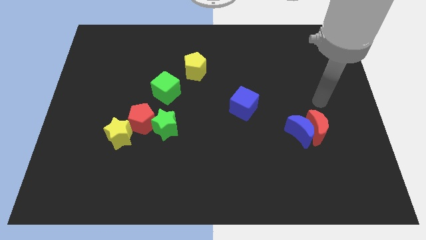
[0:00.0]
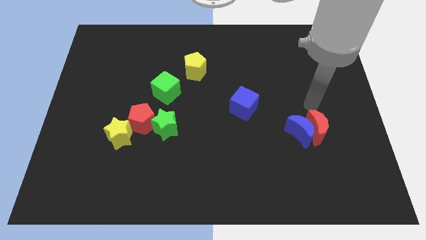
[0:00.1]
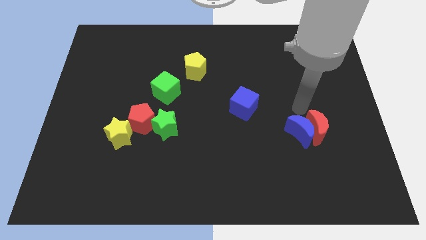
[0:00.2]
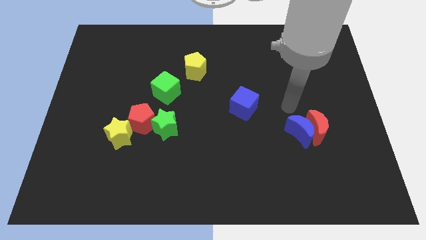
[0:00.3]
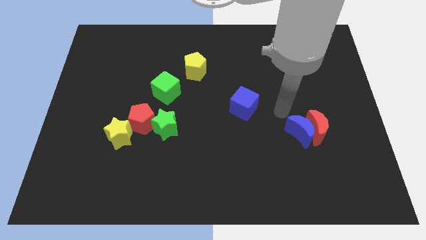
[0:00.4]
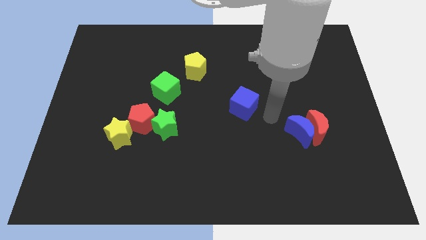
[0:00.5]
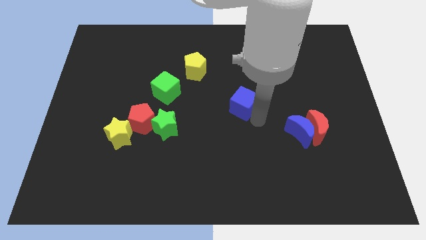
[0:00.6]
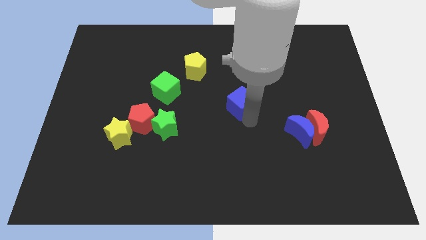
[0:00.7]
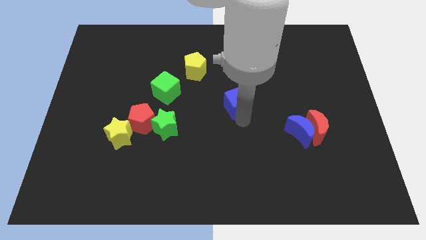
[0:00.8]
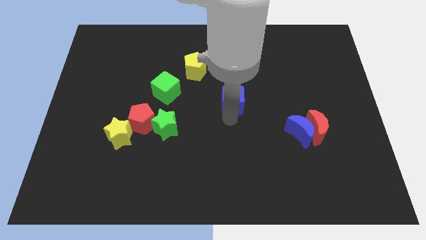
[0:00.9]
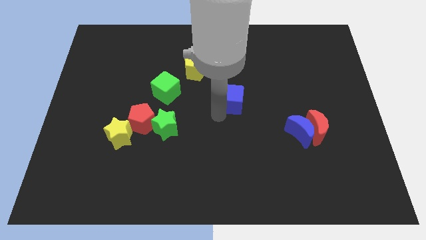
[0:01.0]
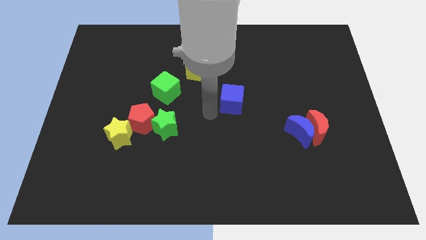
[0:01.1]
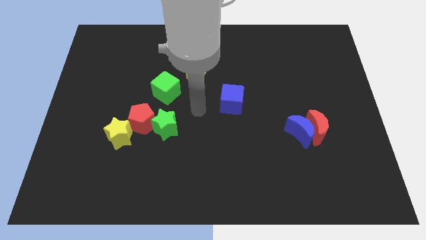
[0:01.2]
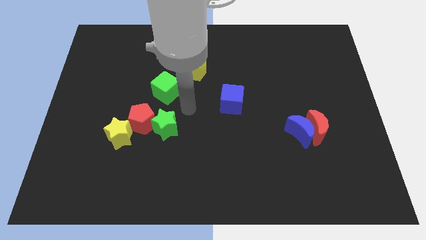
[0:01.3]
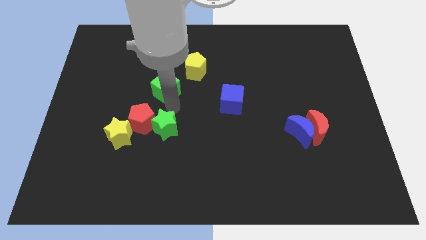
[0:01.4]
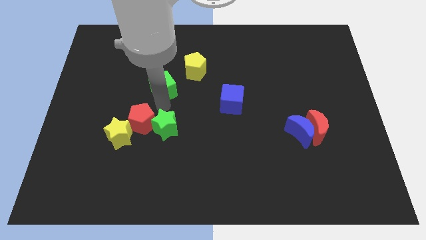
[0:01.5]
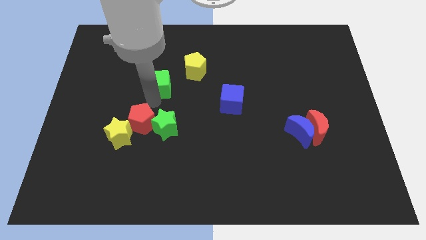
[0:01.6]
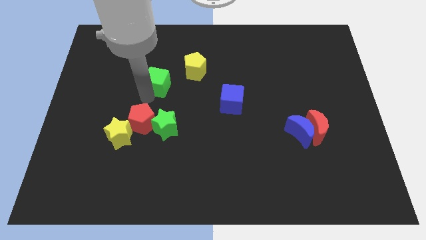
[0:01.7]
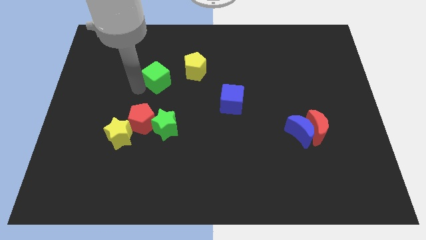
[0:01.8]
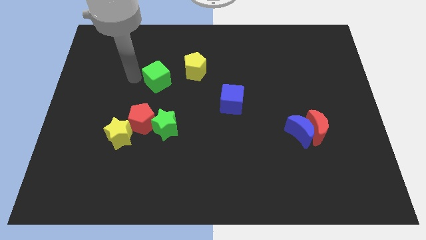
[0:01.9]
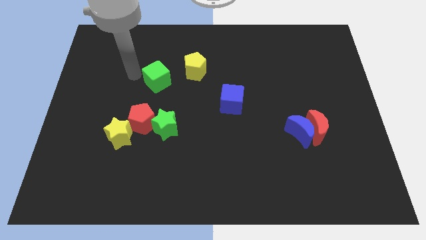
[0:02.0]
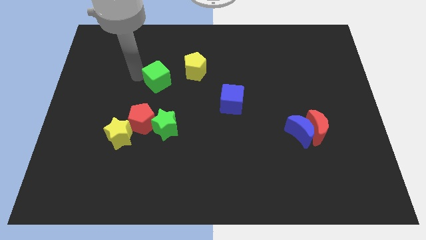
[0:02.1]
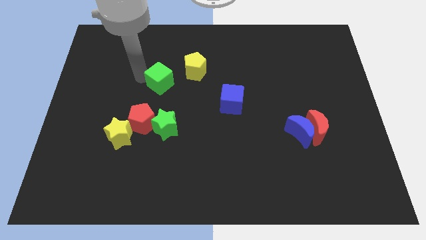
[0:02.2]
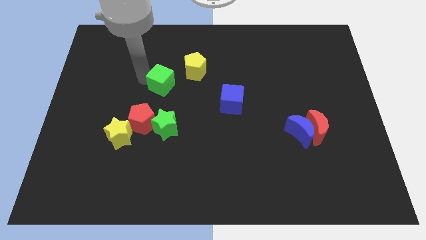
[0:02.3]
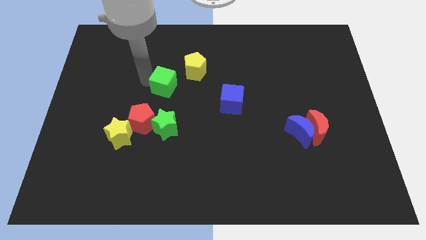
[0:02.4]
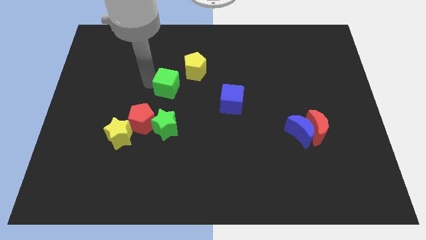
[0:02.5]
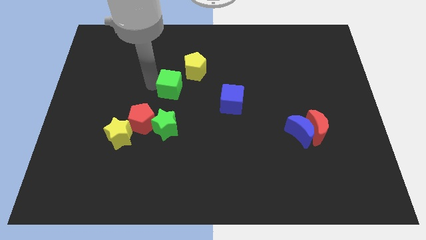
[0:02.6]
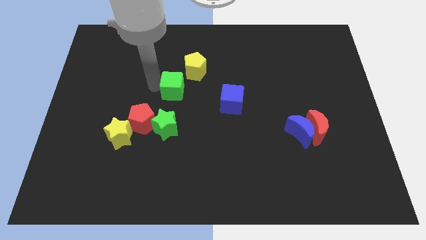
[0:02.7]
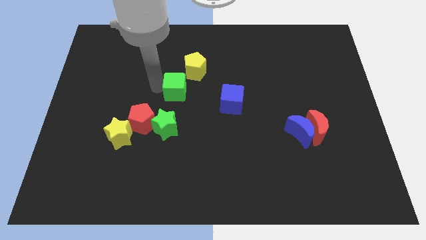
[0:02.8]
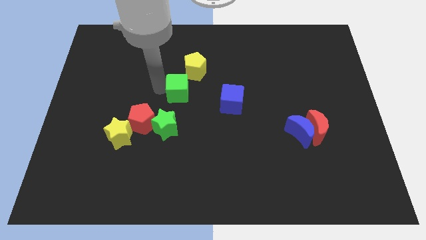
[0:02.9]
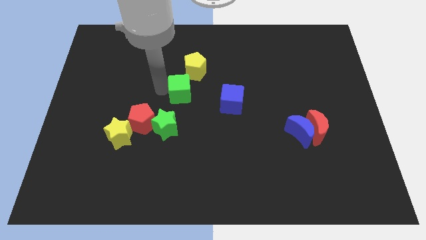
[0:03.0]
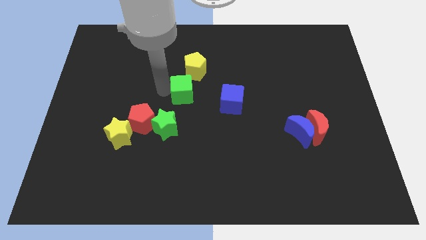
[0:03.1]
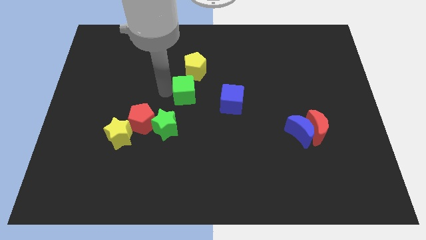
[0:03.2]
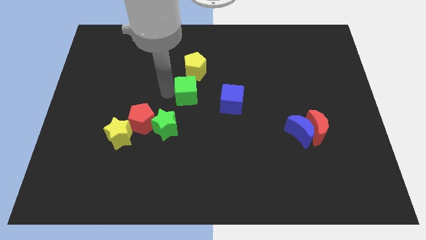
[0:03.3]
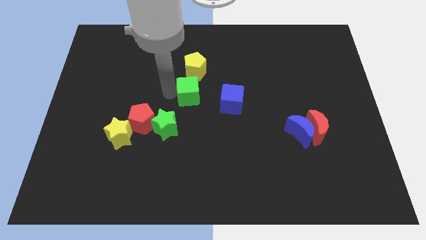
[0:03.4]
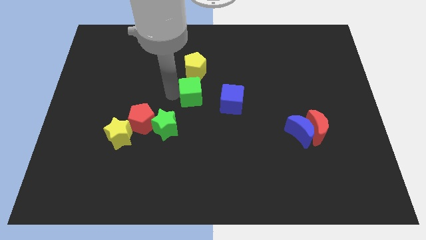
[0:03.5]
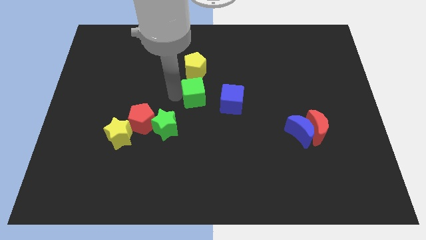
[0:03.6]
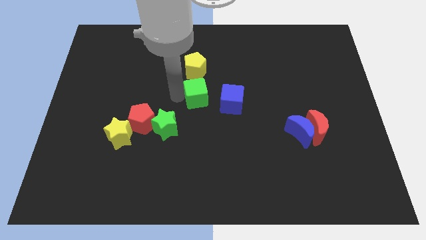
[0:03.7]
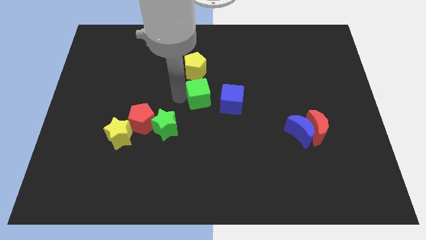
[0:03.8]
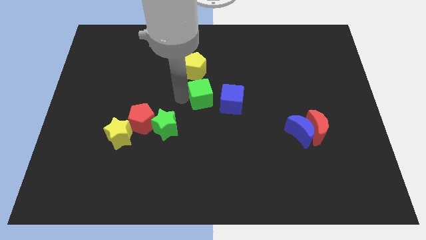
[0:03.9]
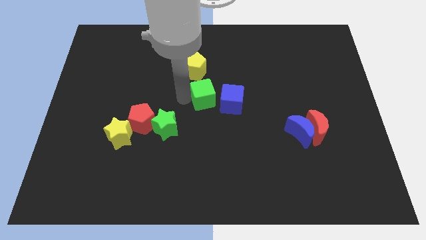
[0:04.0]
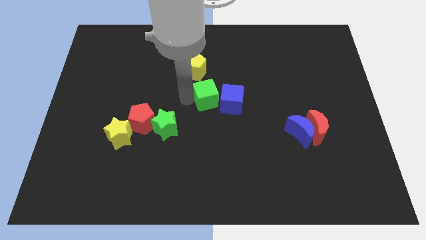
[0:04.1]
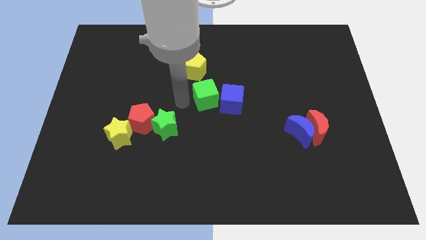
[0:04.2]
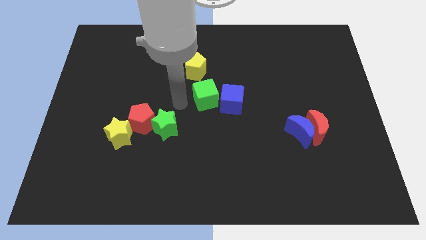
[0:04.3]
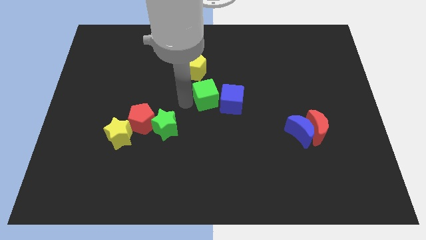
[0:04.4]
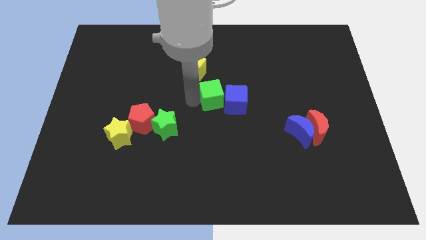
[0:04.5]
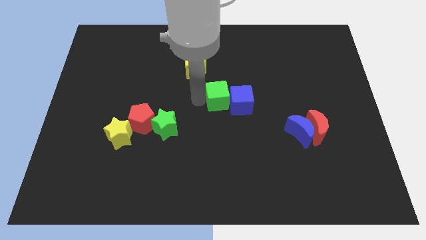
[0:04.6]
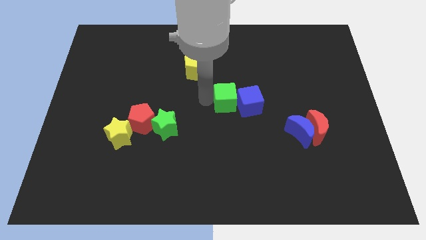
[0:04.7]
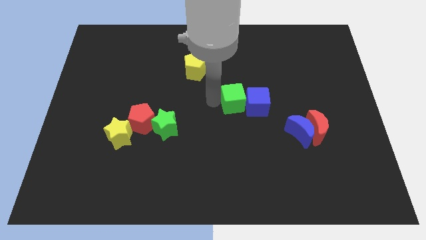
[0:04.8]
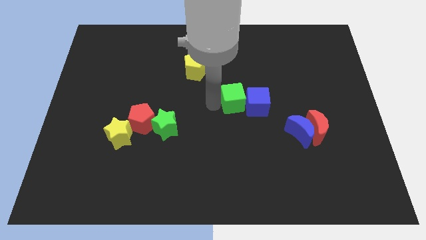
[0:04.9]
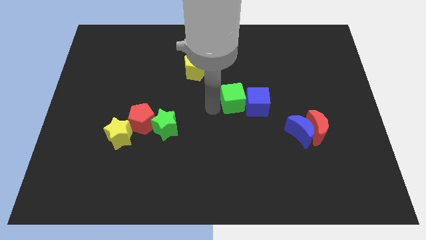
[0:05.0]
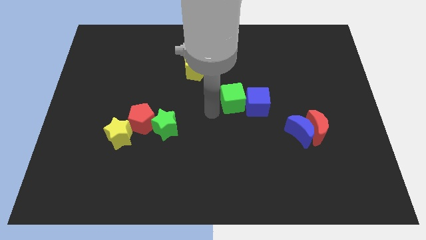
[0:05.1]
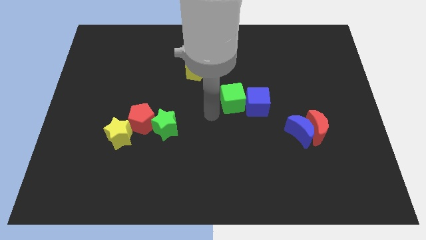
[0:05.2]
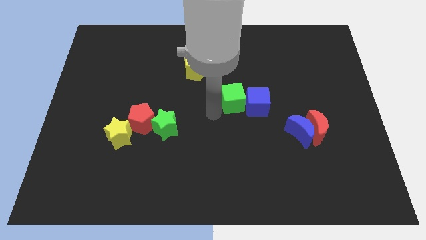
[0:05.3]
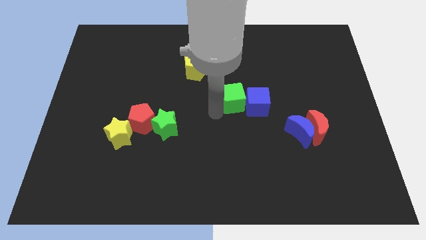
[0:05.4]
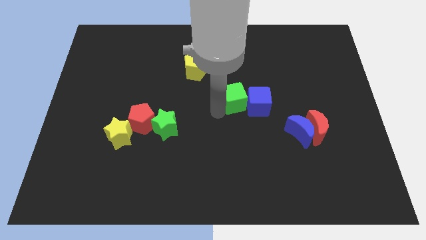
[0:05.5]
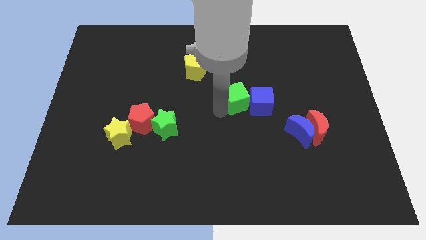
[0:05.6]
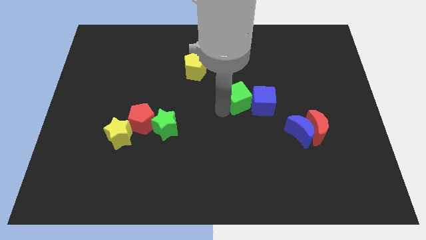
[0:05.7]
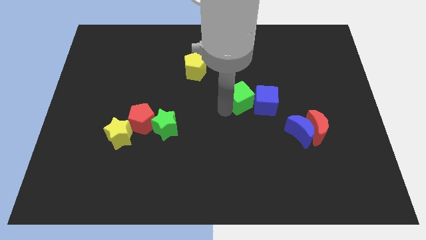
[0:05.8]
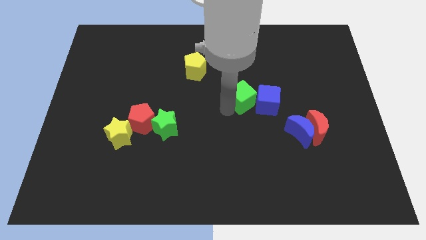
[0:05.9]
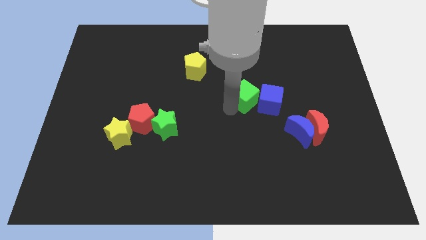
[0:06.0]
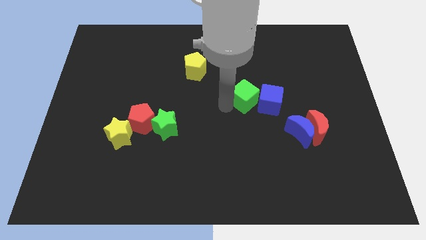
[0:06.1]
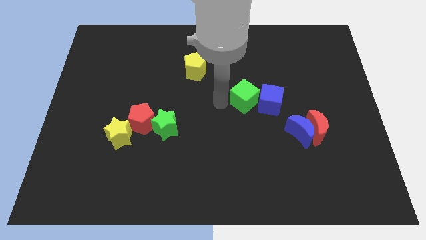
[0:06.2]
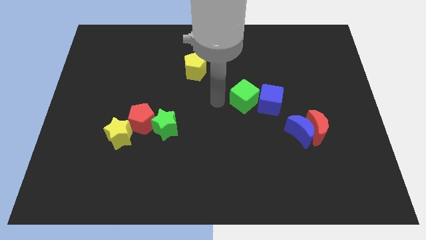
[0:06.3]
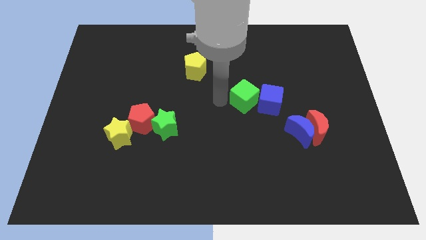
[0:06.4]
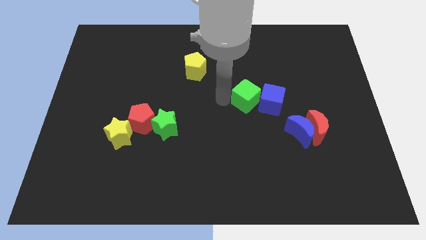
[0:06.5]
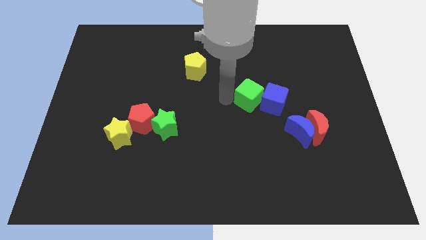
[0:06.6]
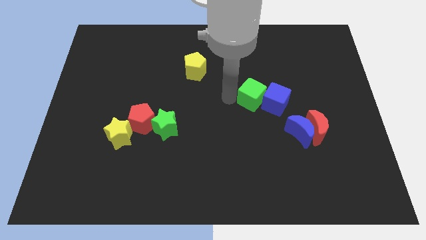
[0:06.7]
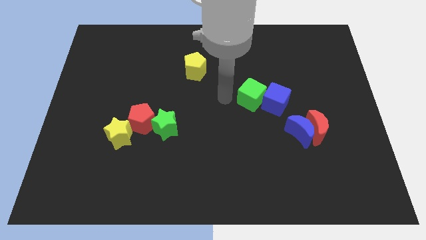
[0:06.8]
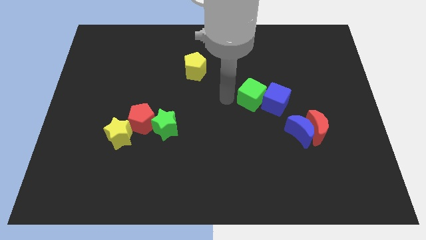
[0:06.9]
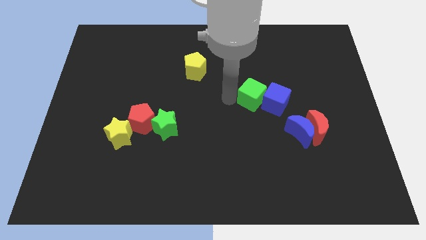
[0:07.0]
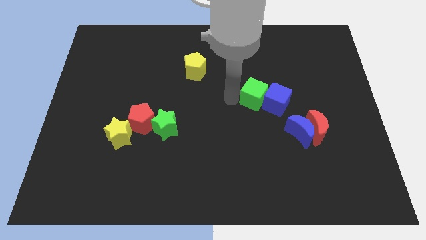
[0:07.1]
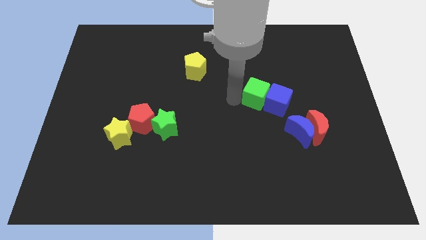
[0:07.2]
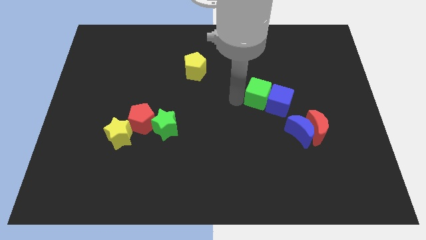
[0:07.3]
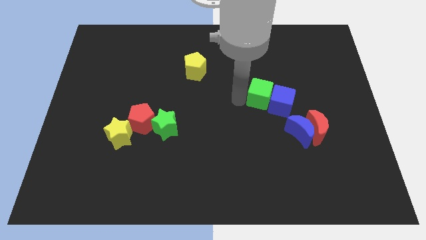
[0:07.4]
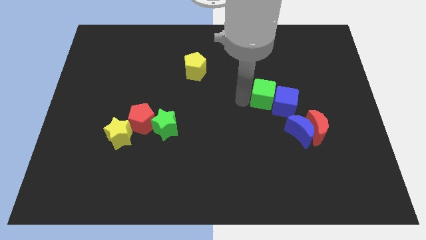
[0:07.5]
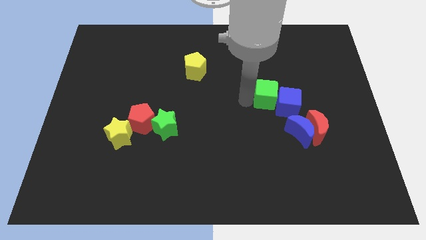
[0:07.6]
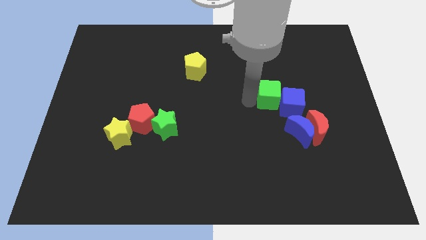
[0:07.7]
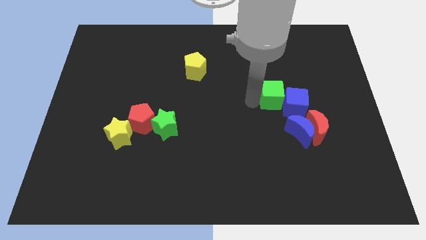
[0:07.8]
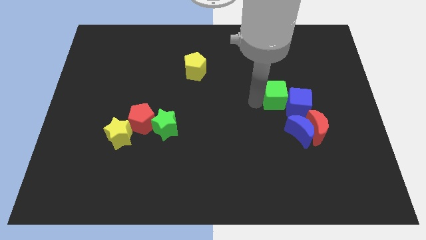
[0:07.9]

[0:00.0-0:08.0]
slide the green cube to the top side of the blue moon
